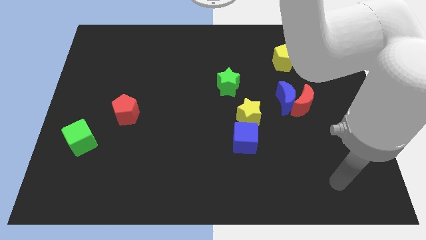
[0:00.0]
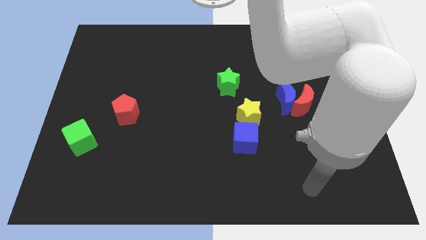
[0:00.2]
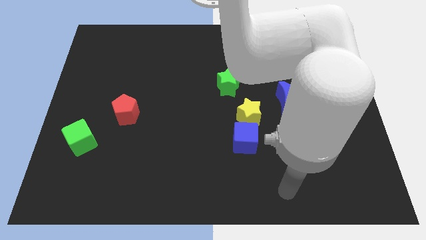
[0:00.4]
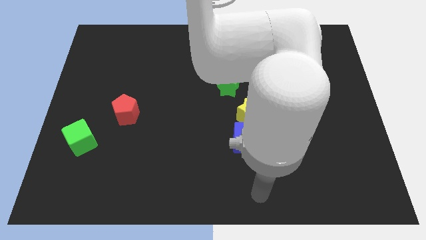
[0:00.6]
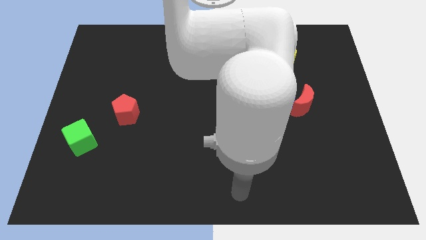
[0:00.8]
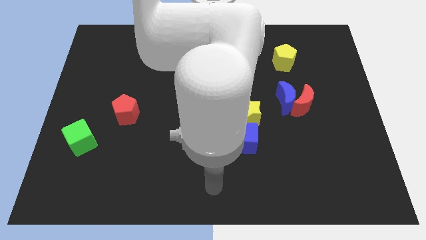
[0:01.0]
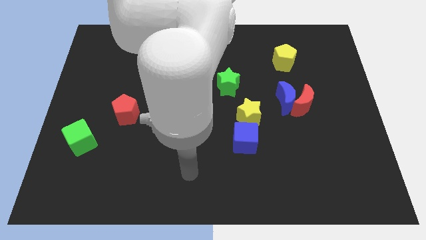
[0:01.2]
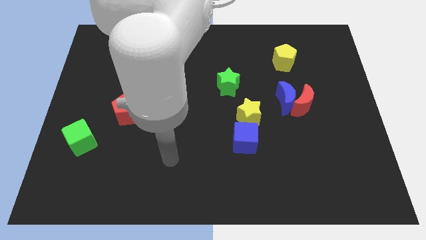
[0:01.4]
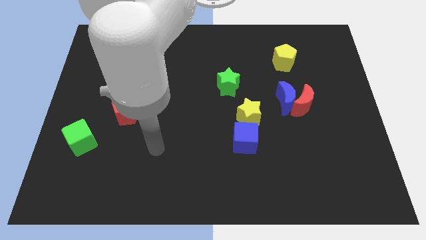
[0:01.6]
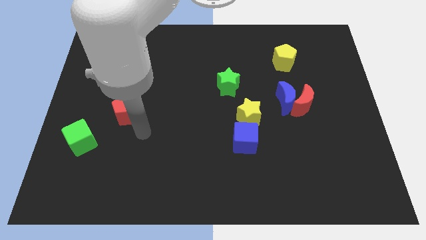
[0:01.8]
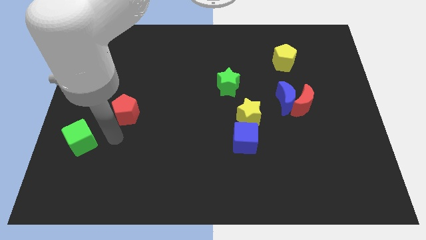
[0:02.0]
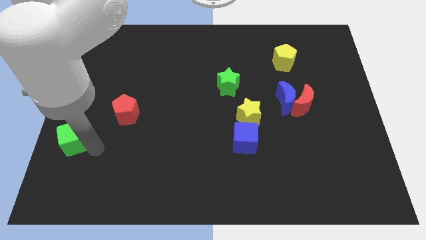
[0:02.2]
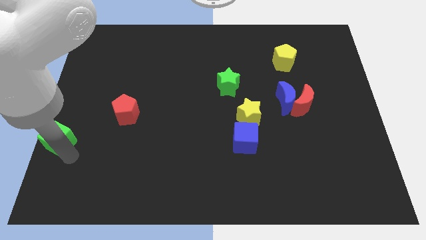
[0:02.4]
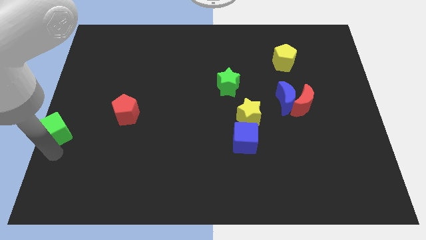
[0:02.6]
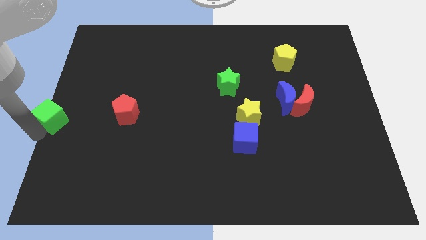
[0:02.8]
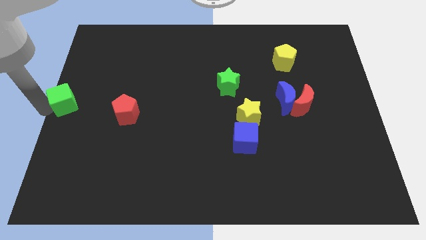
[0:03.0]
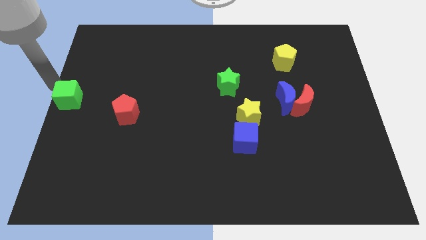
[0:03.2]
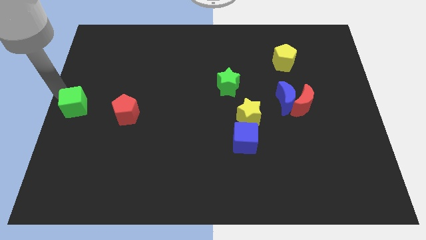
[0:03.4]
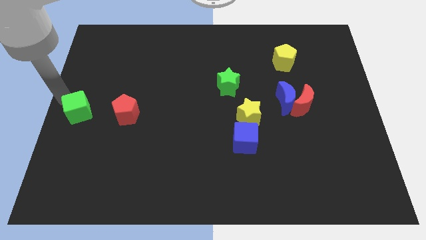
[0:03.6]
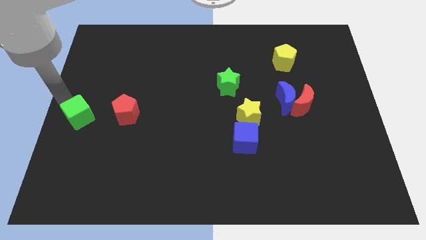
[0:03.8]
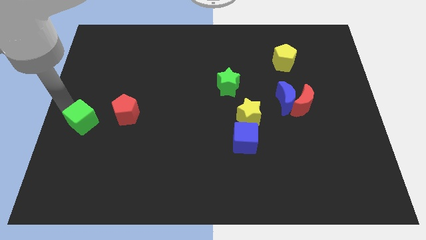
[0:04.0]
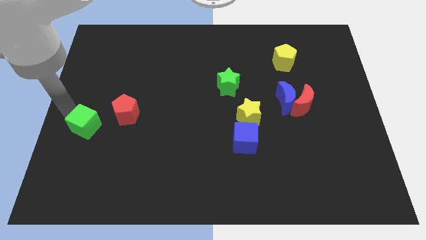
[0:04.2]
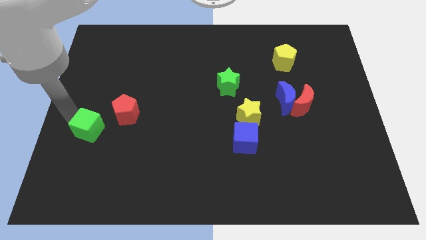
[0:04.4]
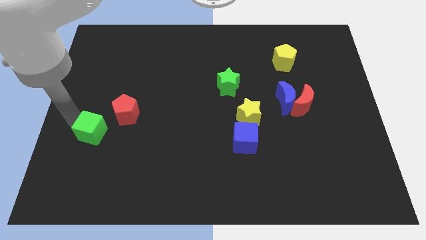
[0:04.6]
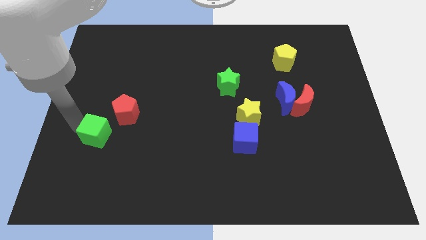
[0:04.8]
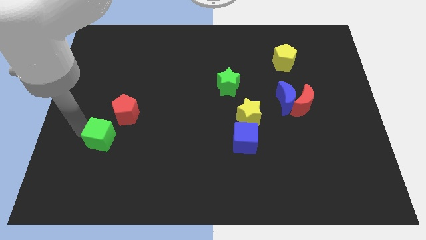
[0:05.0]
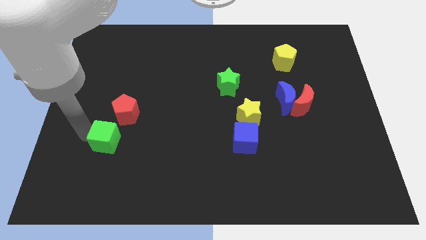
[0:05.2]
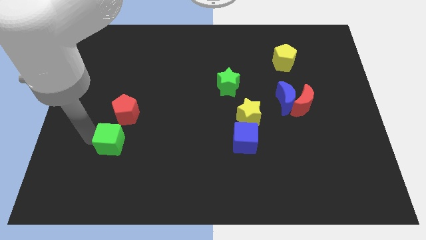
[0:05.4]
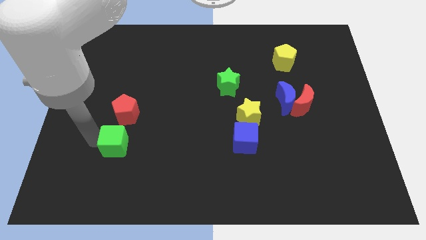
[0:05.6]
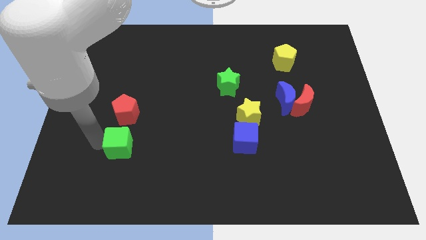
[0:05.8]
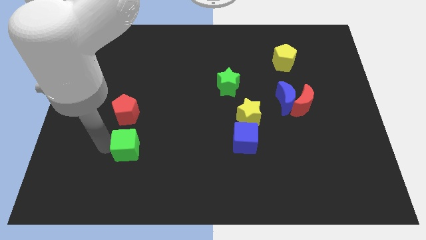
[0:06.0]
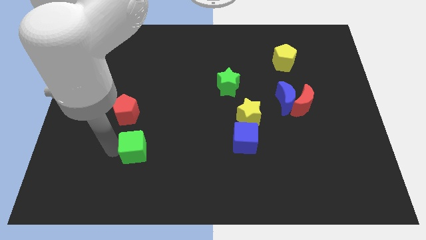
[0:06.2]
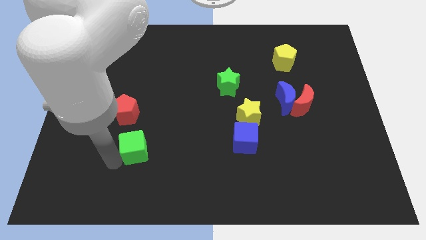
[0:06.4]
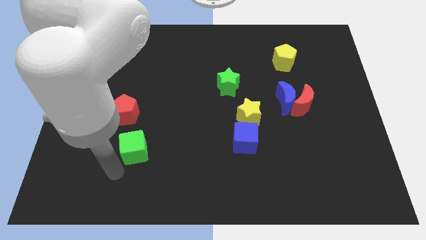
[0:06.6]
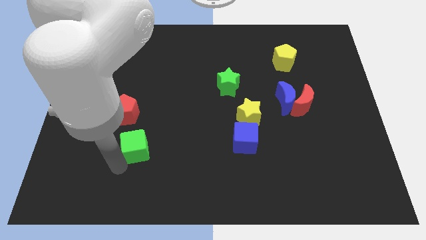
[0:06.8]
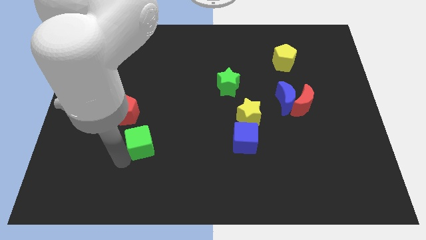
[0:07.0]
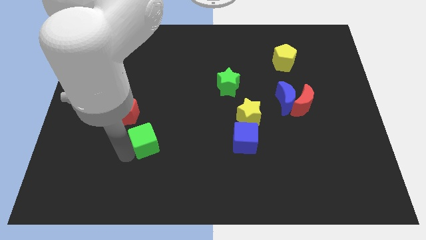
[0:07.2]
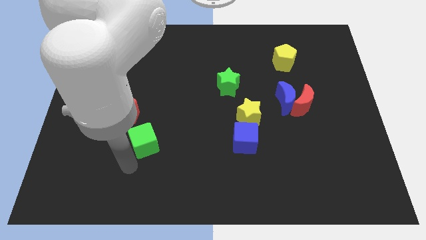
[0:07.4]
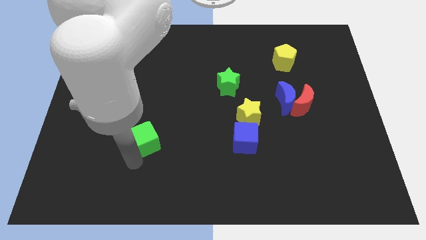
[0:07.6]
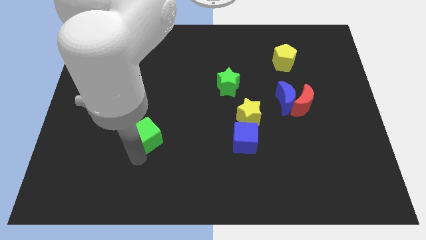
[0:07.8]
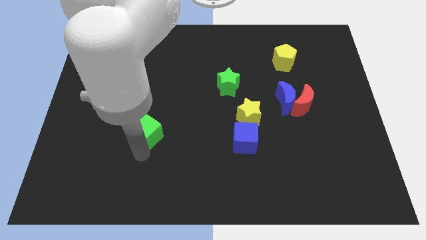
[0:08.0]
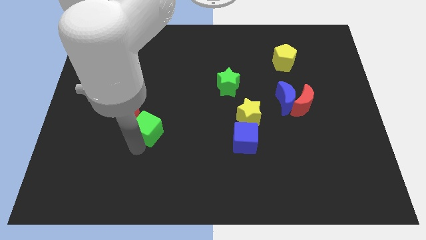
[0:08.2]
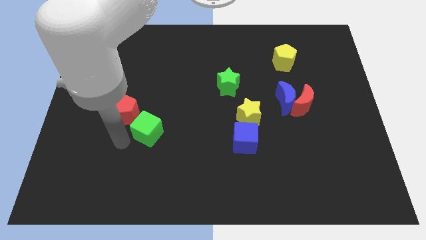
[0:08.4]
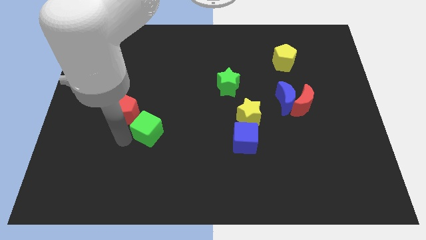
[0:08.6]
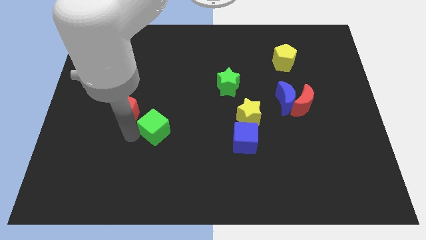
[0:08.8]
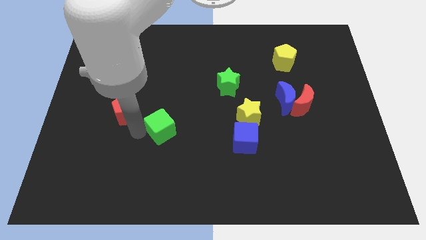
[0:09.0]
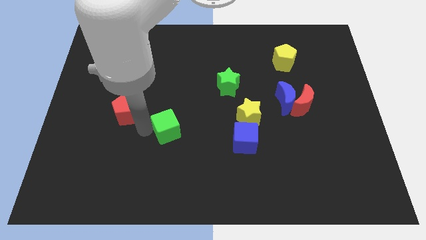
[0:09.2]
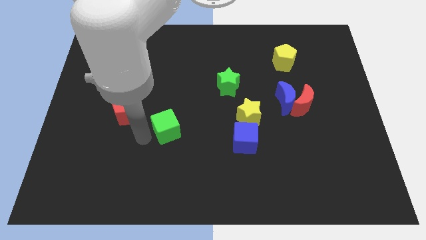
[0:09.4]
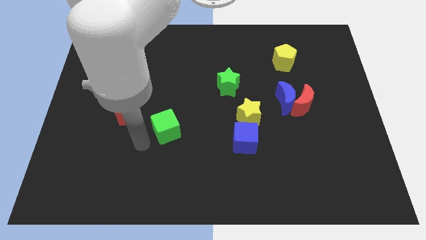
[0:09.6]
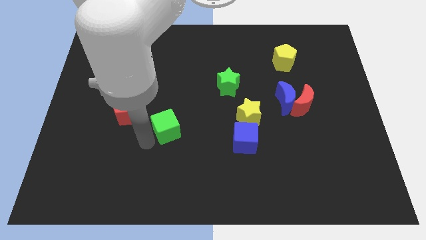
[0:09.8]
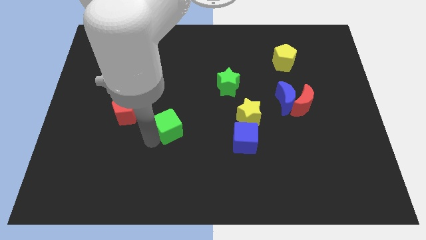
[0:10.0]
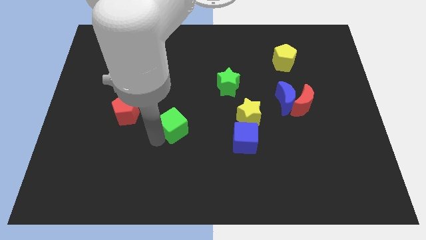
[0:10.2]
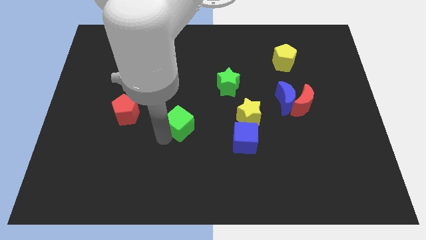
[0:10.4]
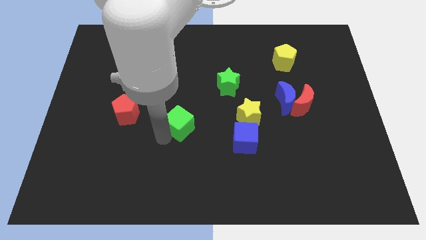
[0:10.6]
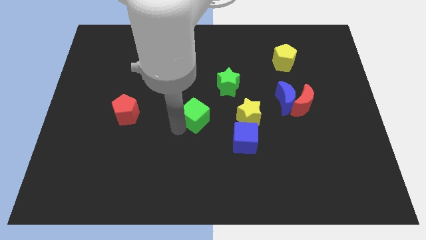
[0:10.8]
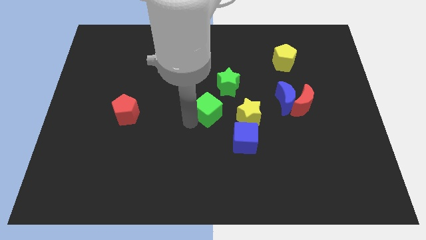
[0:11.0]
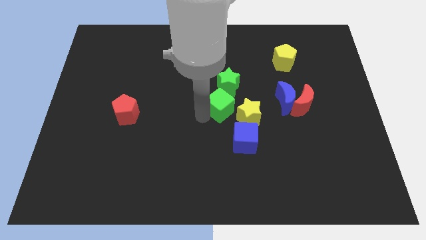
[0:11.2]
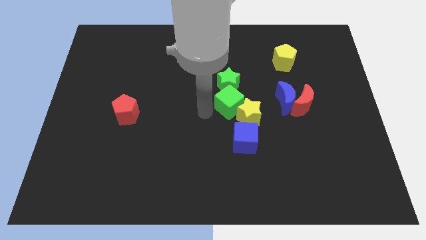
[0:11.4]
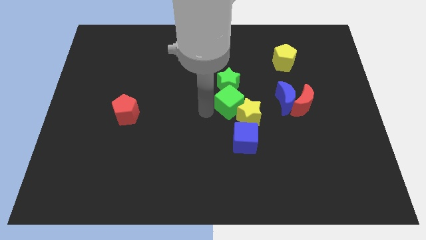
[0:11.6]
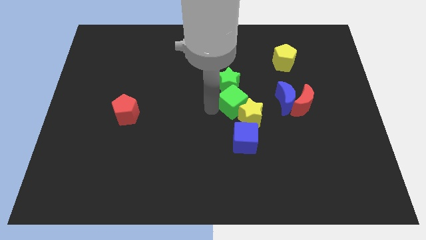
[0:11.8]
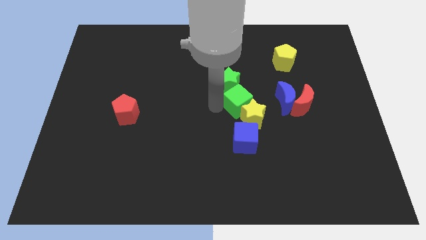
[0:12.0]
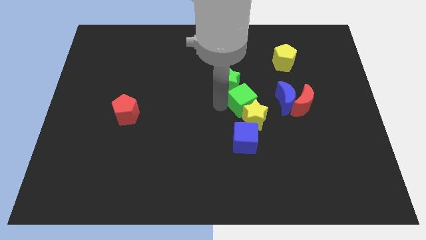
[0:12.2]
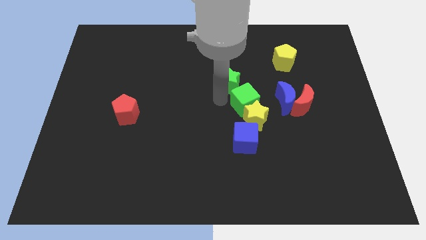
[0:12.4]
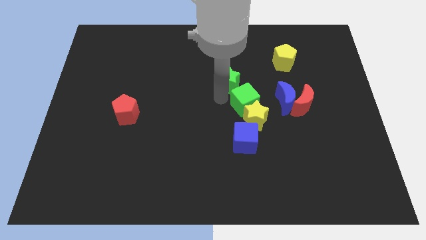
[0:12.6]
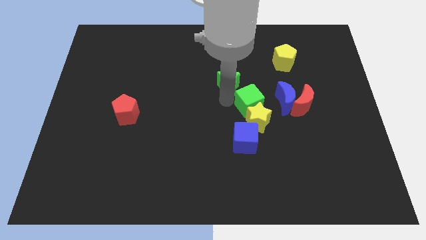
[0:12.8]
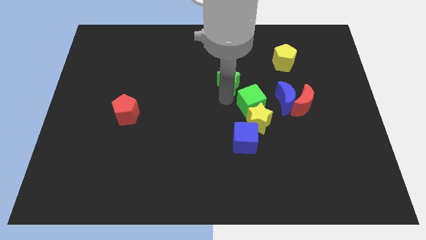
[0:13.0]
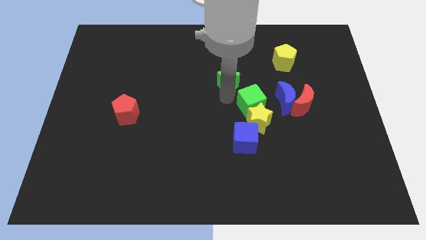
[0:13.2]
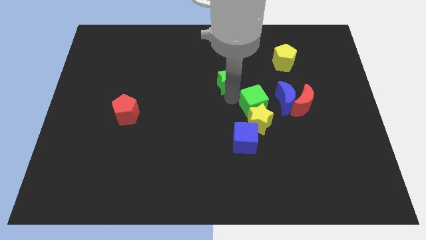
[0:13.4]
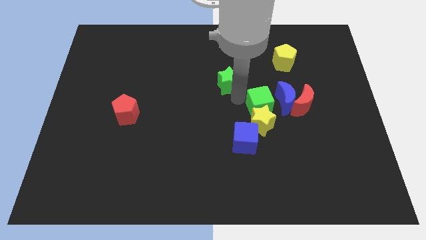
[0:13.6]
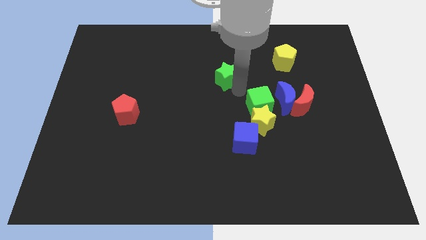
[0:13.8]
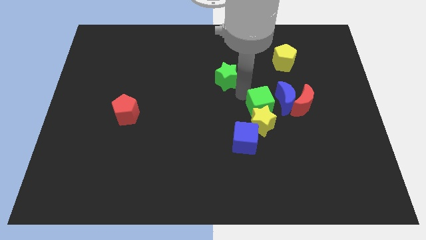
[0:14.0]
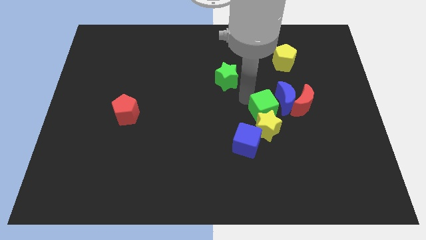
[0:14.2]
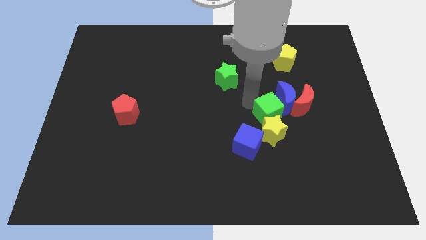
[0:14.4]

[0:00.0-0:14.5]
slide the green cube diagonally down and to the left of the red moon
